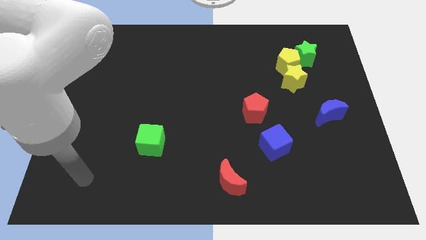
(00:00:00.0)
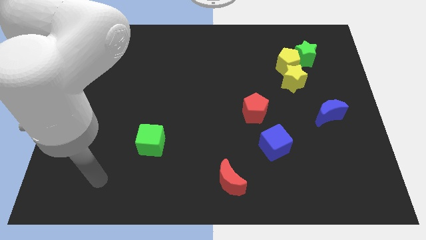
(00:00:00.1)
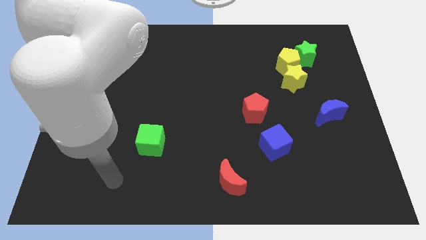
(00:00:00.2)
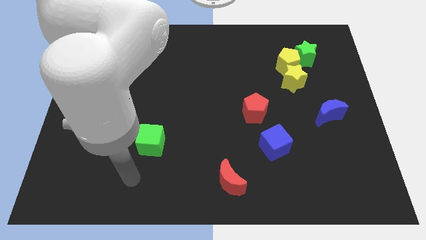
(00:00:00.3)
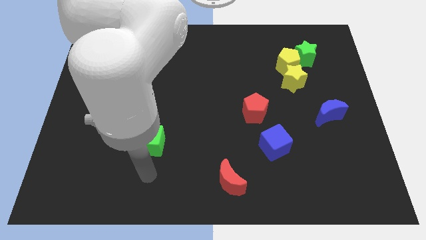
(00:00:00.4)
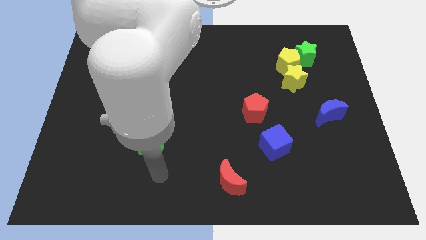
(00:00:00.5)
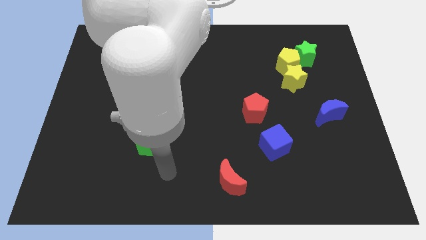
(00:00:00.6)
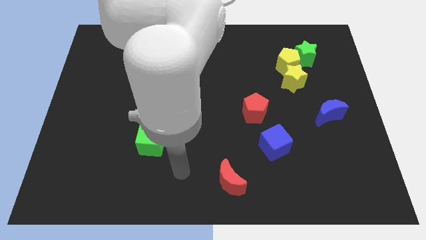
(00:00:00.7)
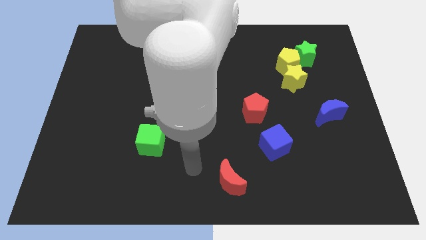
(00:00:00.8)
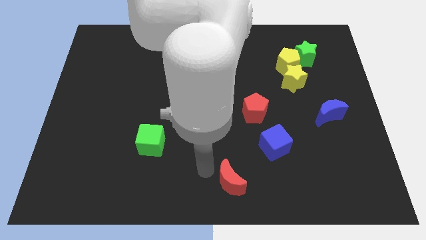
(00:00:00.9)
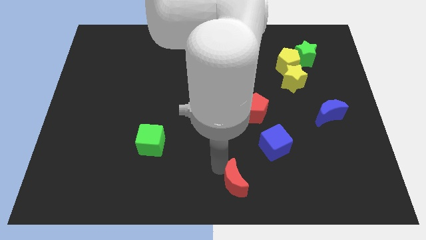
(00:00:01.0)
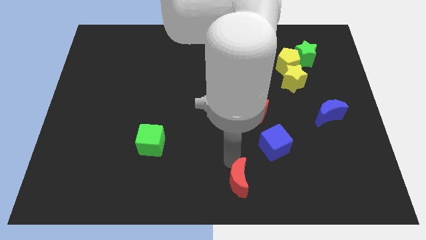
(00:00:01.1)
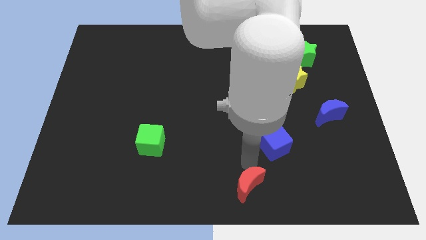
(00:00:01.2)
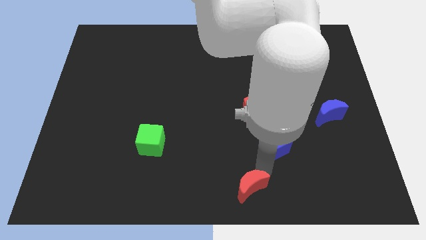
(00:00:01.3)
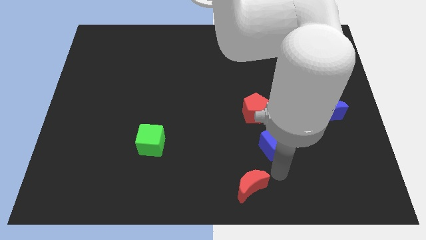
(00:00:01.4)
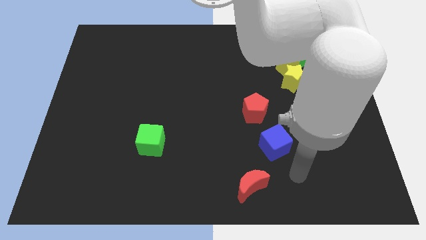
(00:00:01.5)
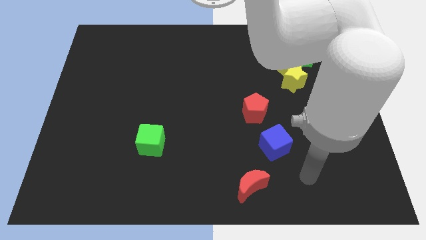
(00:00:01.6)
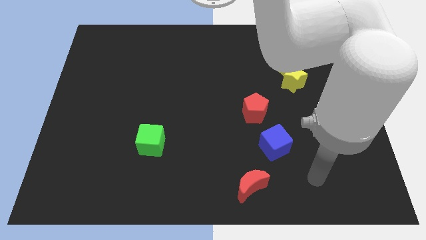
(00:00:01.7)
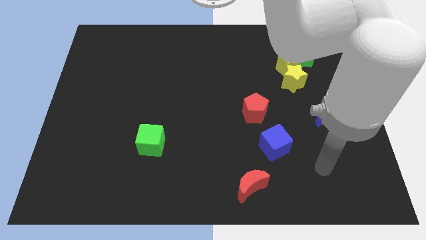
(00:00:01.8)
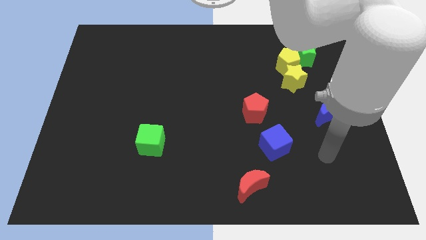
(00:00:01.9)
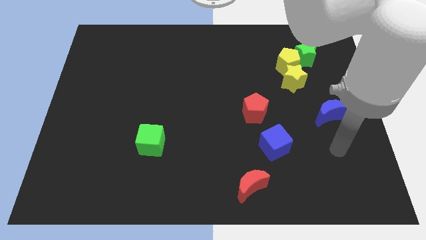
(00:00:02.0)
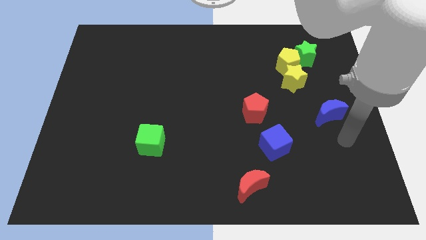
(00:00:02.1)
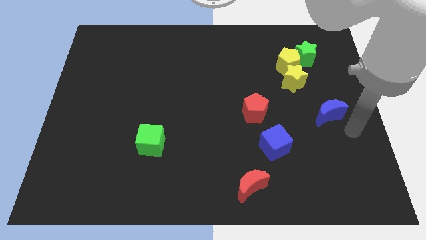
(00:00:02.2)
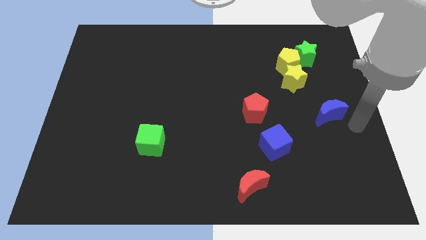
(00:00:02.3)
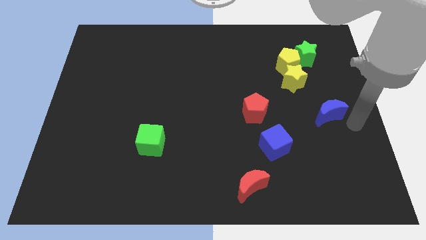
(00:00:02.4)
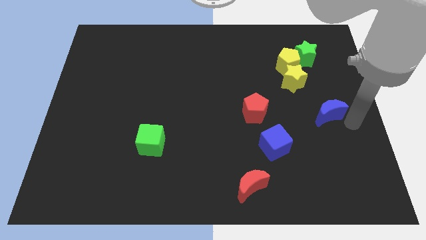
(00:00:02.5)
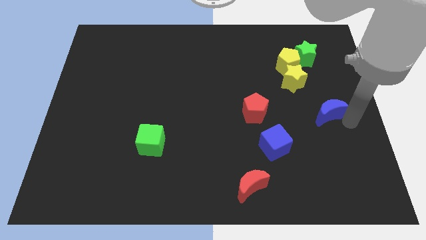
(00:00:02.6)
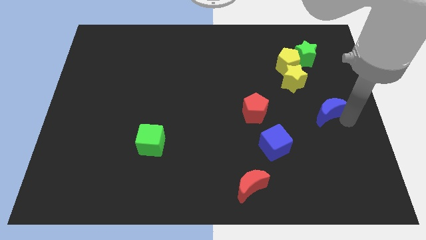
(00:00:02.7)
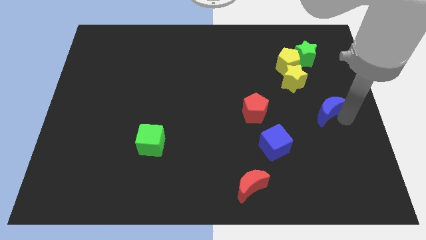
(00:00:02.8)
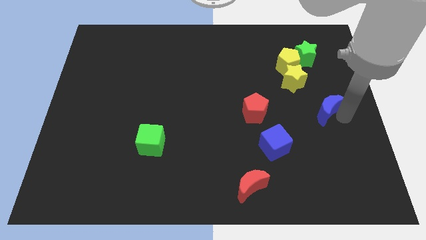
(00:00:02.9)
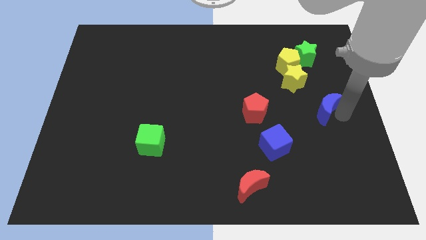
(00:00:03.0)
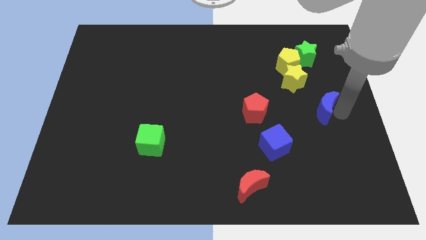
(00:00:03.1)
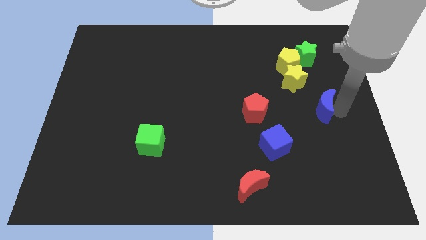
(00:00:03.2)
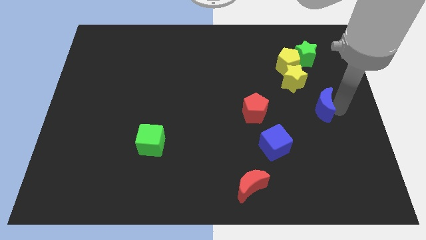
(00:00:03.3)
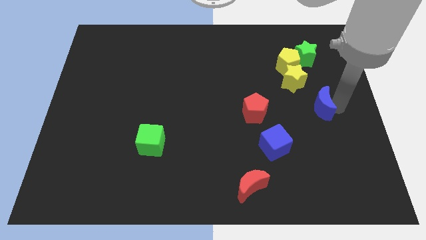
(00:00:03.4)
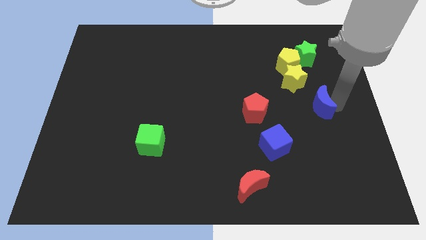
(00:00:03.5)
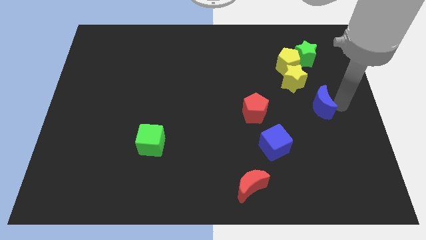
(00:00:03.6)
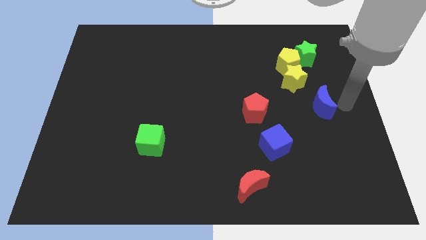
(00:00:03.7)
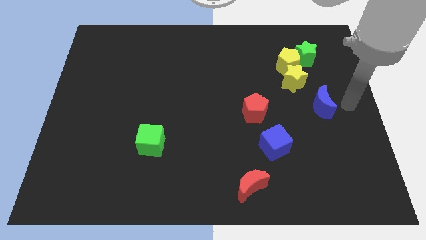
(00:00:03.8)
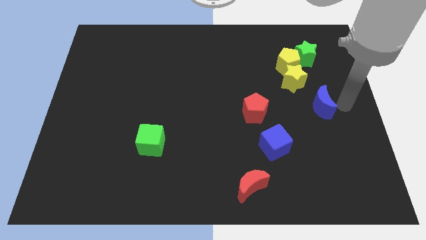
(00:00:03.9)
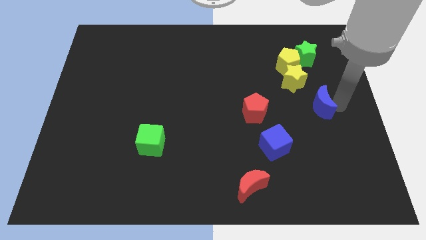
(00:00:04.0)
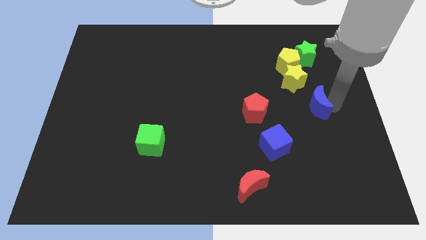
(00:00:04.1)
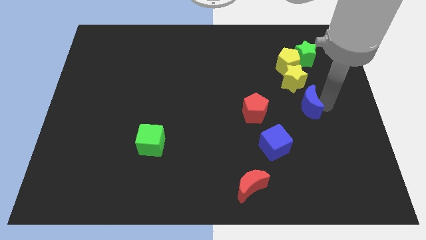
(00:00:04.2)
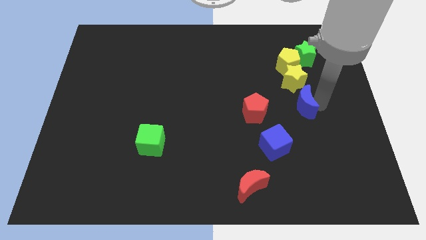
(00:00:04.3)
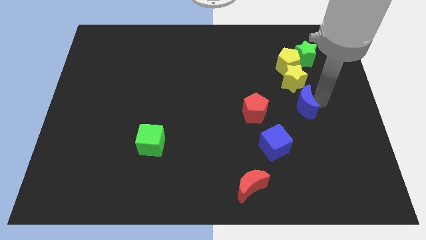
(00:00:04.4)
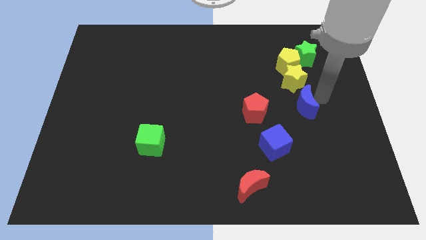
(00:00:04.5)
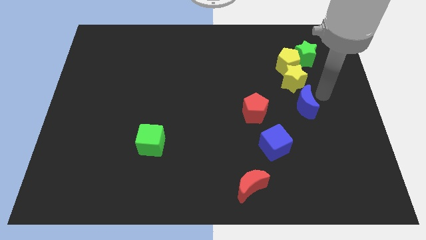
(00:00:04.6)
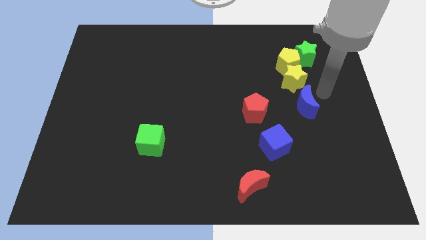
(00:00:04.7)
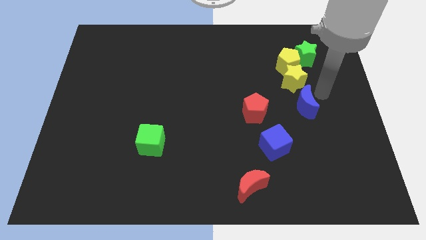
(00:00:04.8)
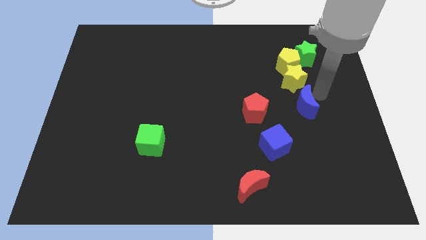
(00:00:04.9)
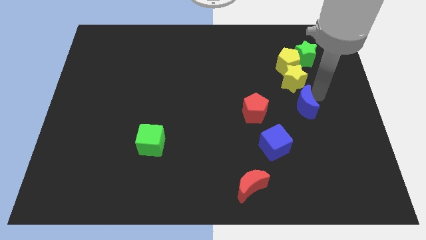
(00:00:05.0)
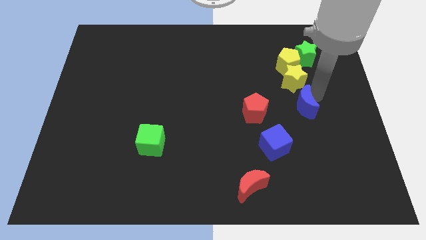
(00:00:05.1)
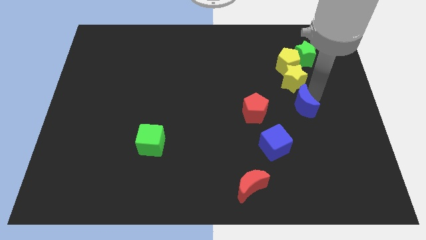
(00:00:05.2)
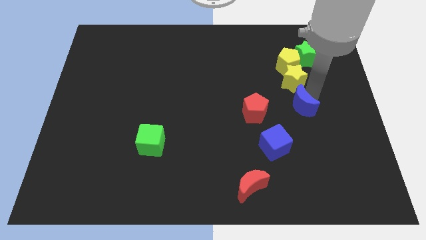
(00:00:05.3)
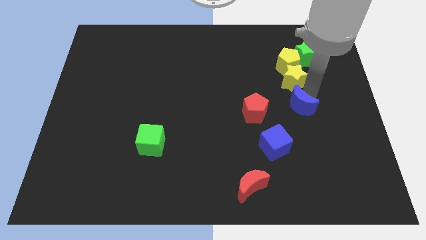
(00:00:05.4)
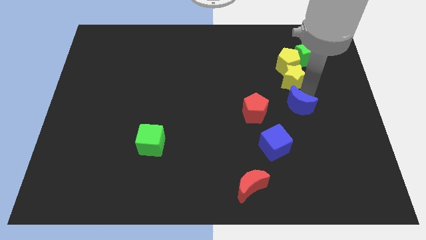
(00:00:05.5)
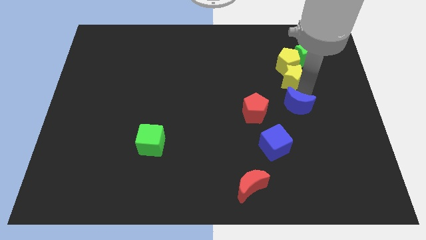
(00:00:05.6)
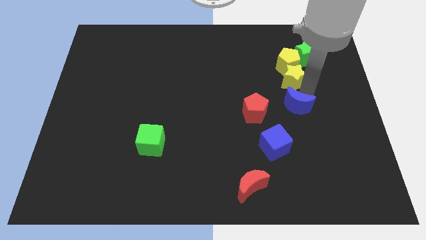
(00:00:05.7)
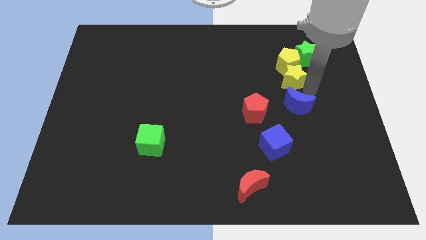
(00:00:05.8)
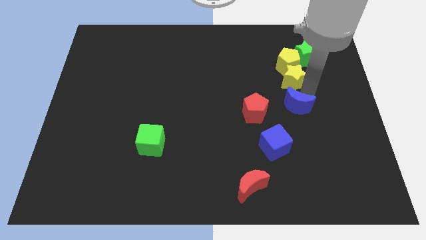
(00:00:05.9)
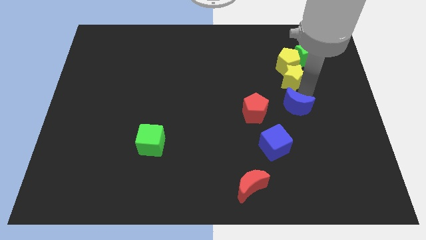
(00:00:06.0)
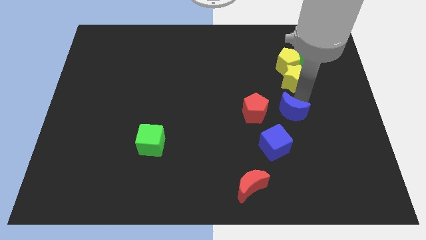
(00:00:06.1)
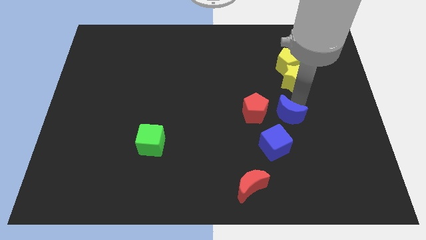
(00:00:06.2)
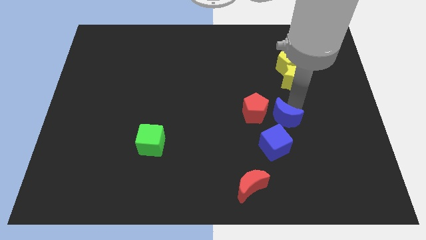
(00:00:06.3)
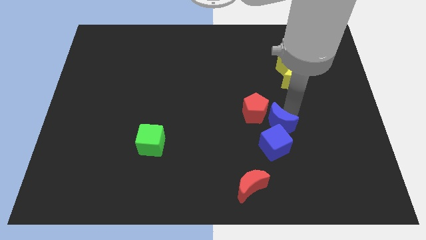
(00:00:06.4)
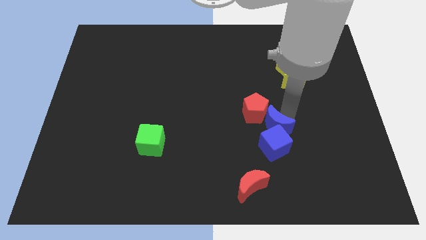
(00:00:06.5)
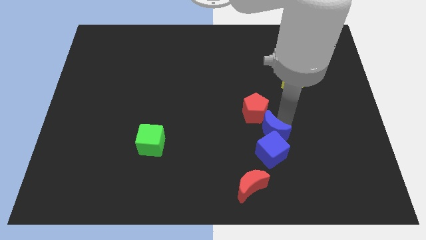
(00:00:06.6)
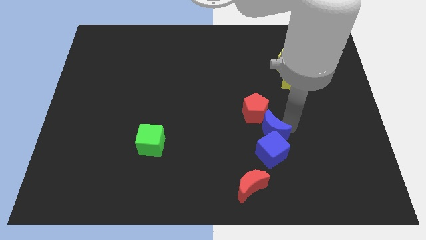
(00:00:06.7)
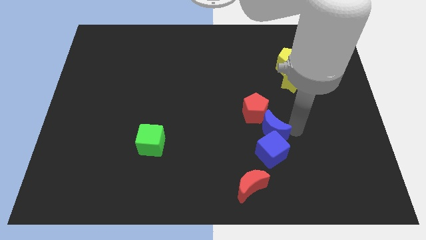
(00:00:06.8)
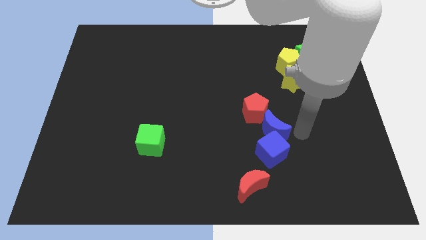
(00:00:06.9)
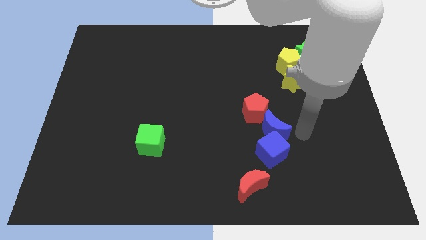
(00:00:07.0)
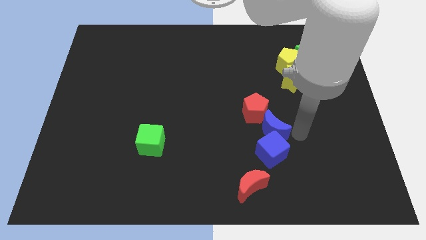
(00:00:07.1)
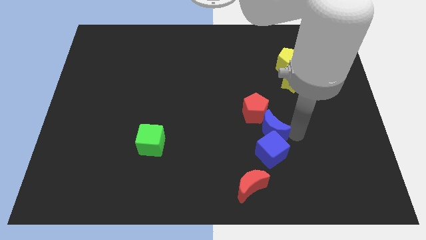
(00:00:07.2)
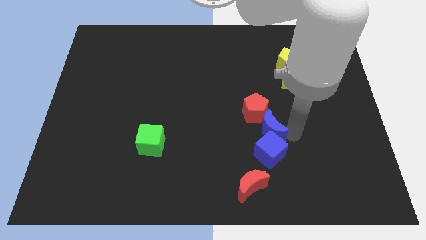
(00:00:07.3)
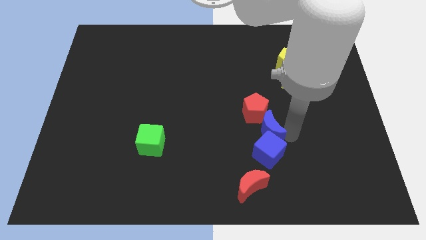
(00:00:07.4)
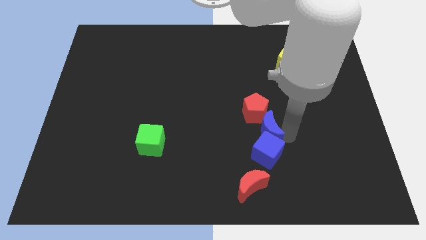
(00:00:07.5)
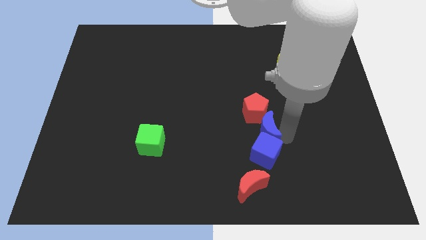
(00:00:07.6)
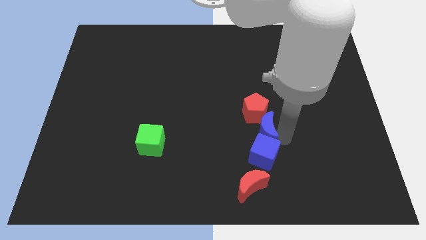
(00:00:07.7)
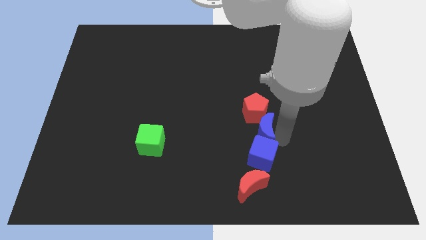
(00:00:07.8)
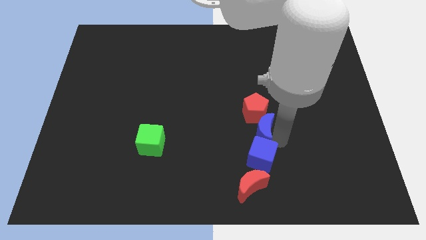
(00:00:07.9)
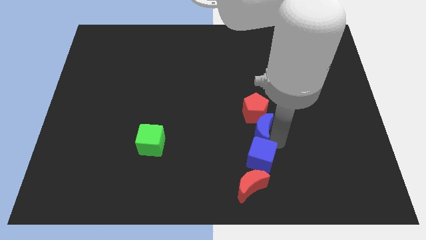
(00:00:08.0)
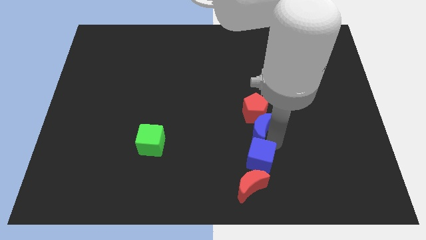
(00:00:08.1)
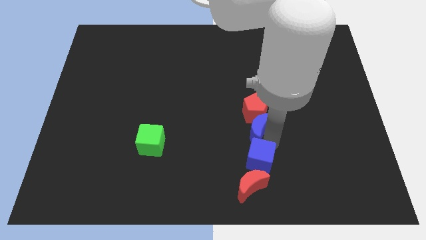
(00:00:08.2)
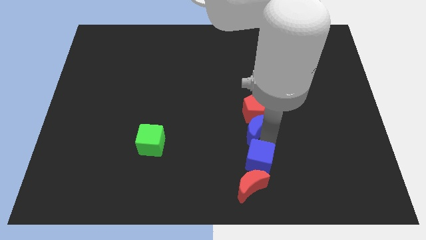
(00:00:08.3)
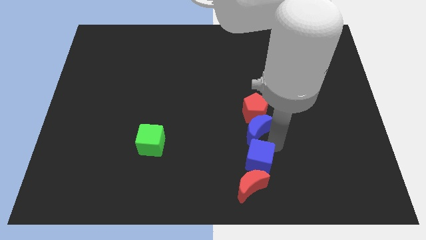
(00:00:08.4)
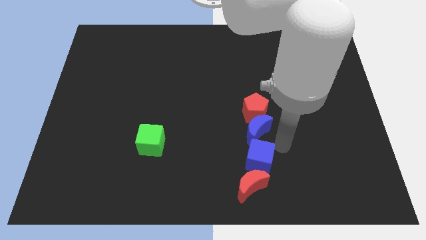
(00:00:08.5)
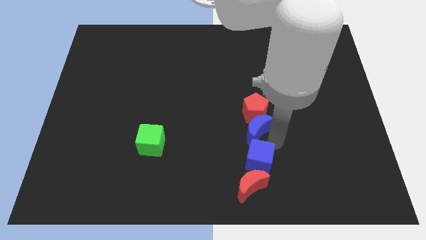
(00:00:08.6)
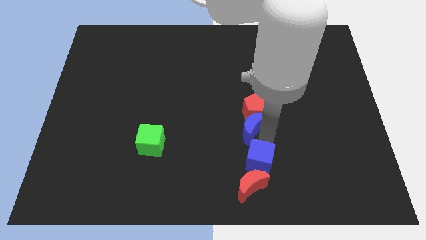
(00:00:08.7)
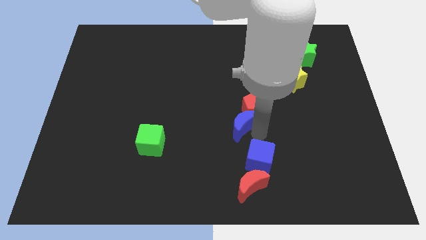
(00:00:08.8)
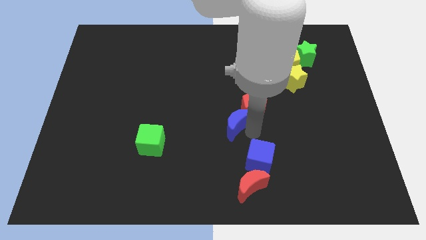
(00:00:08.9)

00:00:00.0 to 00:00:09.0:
put the blue moon to the left side of the red pentagon
